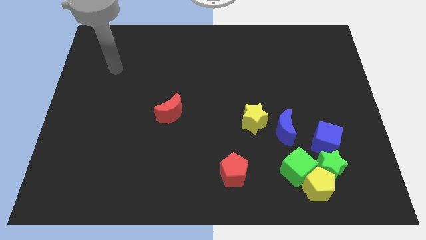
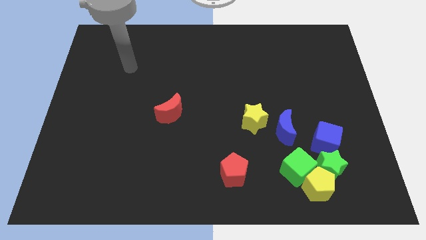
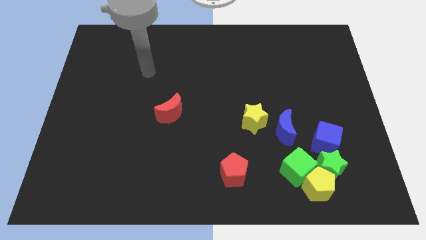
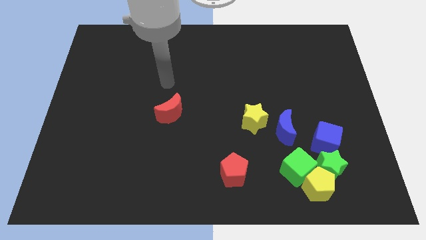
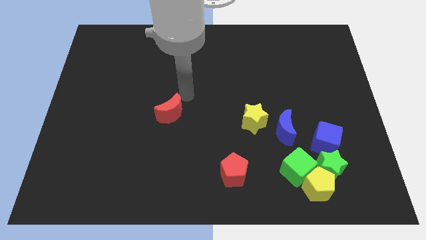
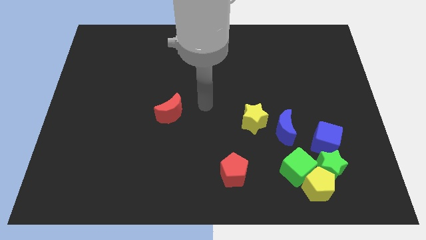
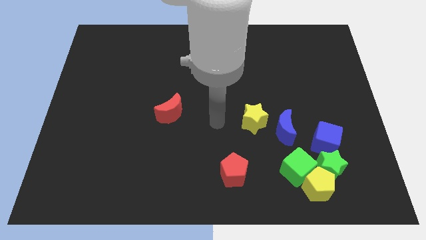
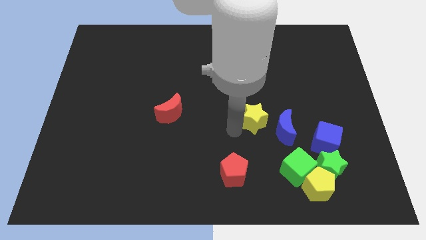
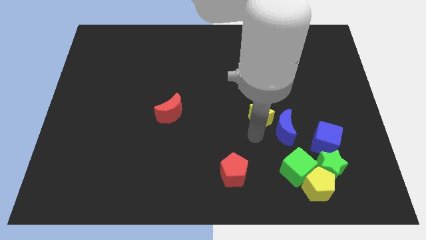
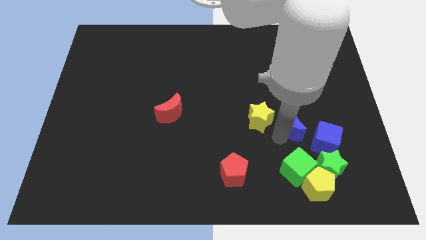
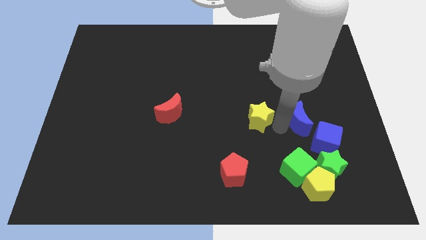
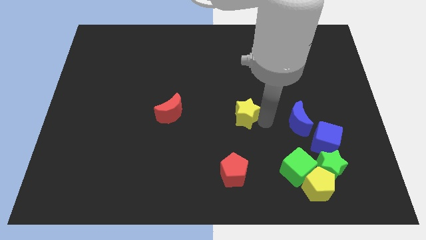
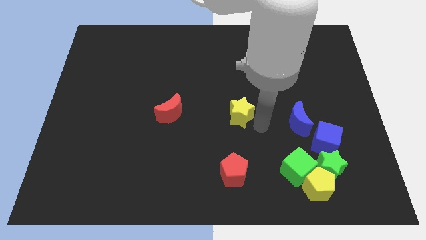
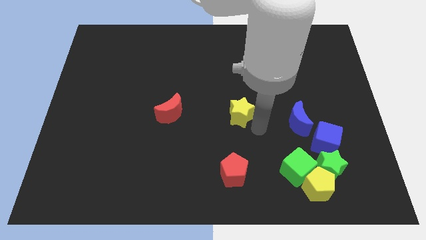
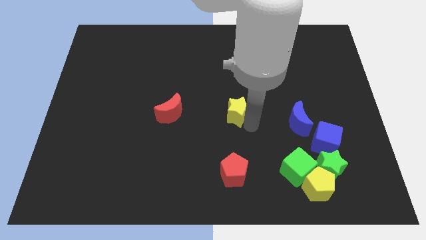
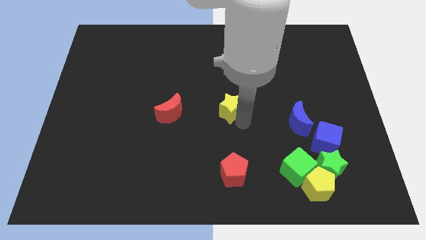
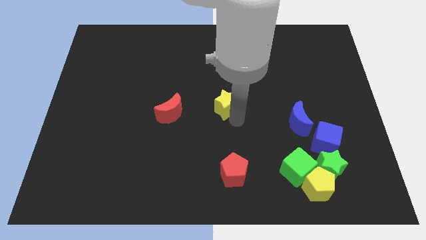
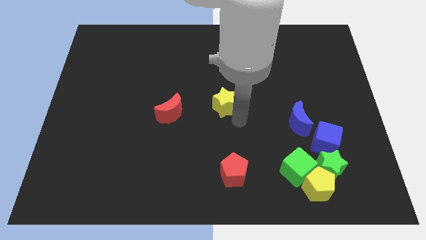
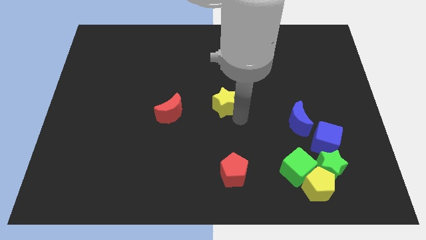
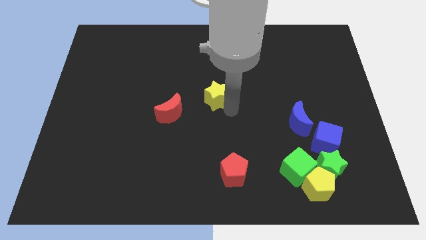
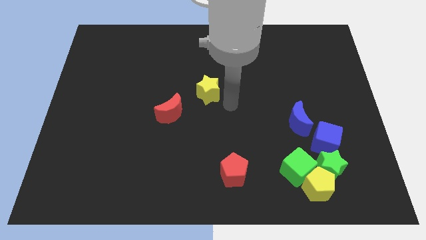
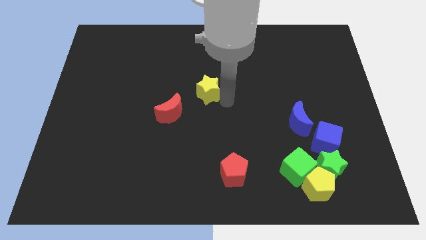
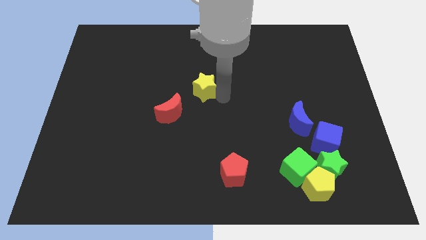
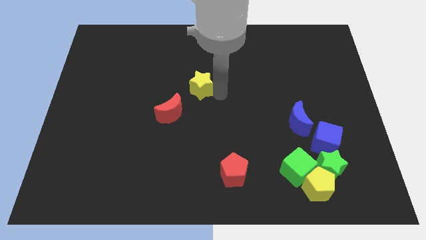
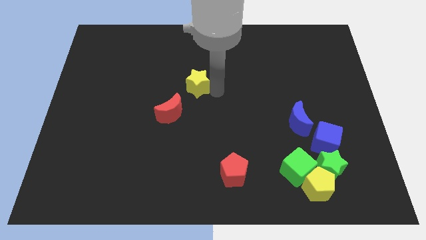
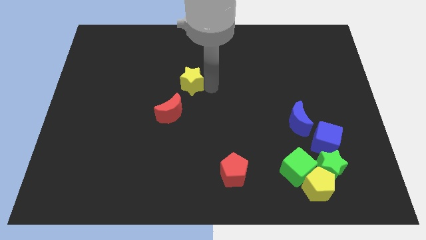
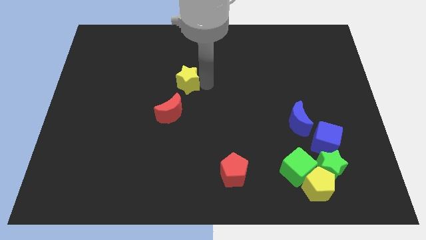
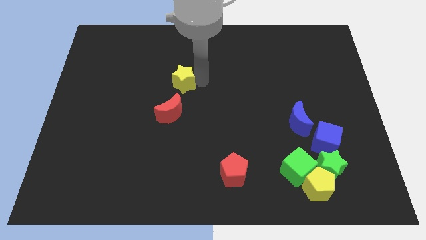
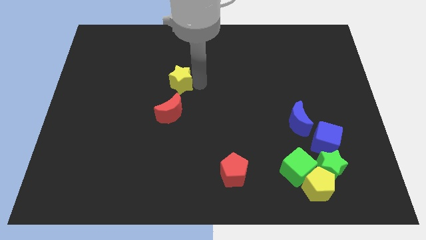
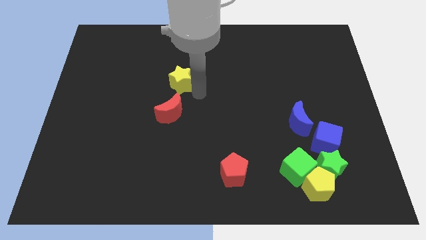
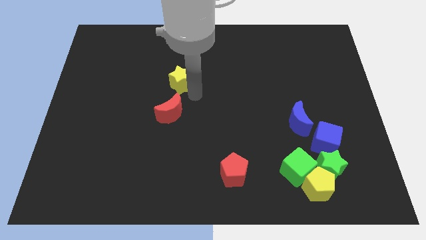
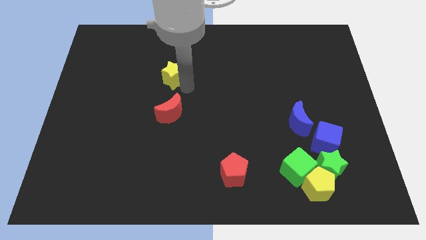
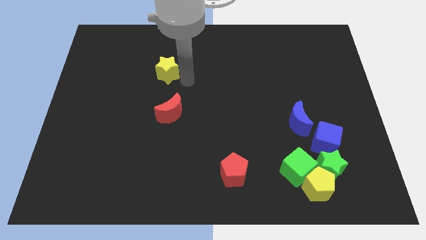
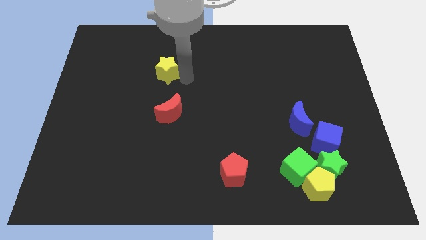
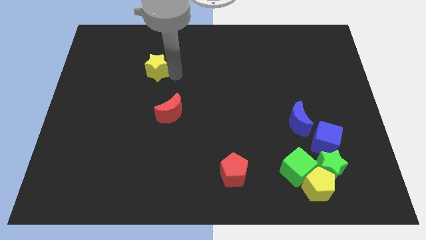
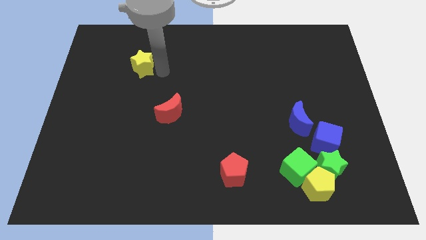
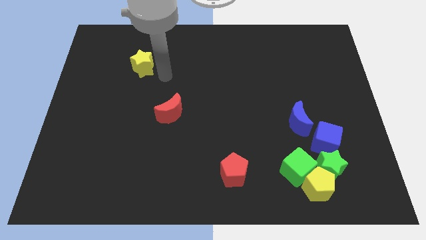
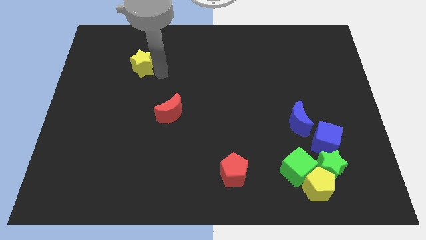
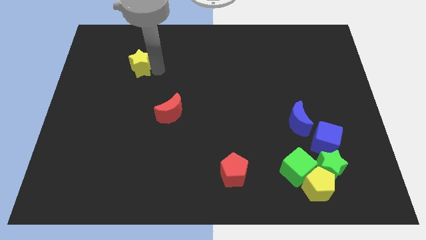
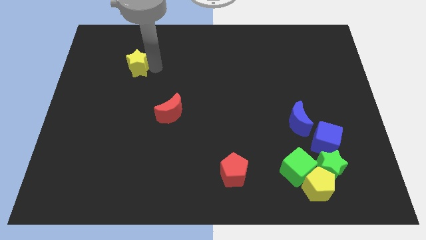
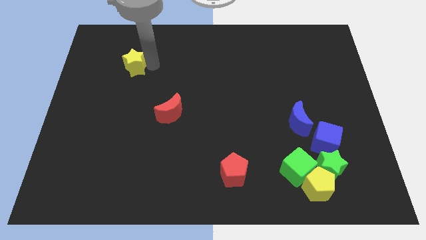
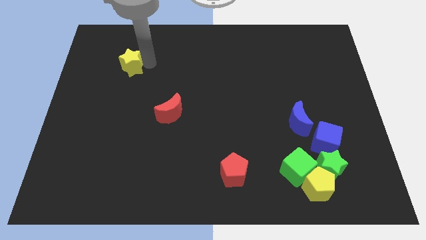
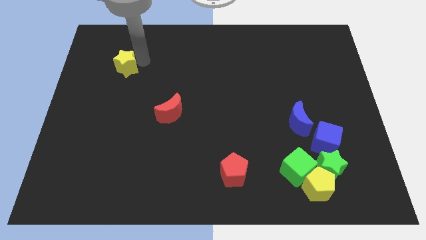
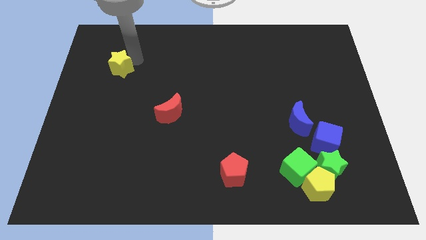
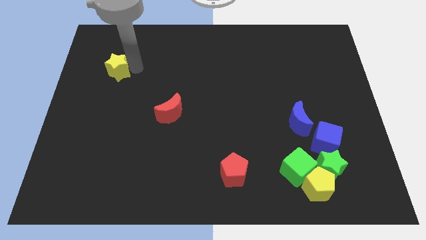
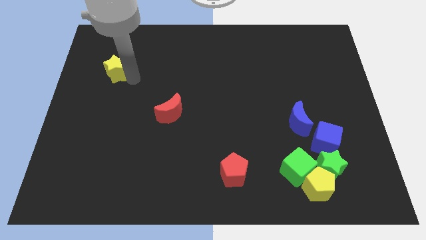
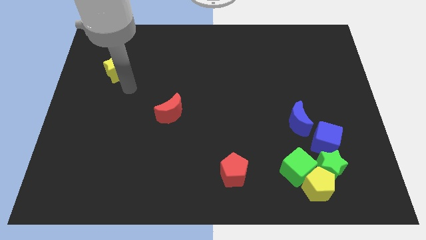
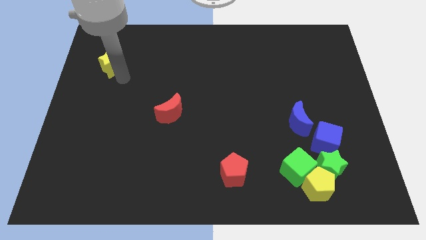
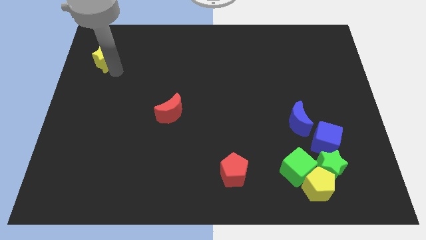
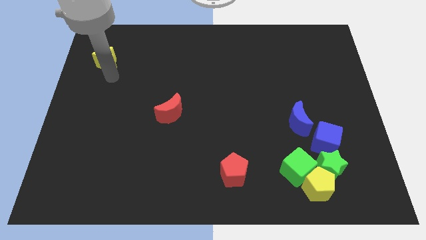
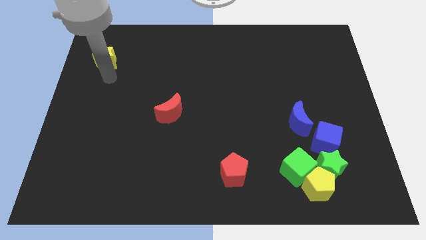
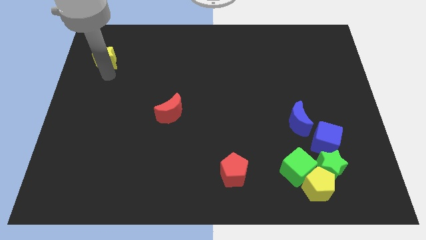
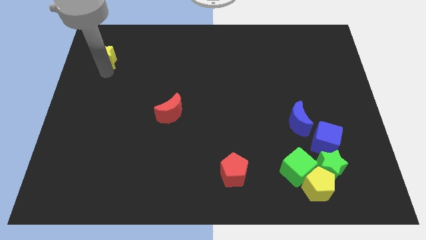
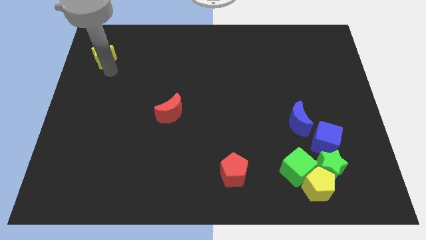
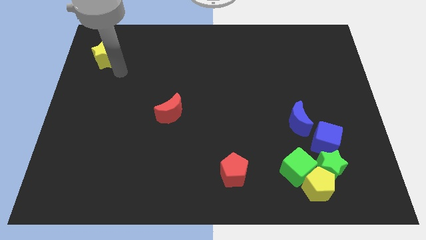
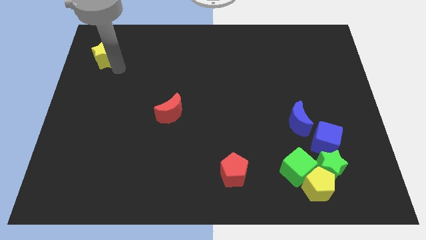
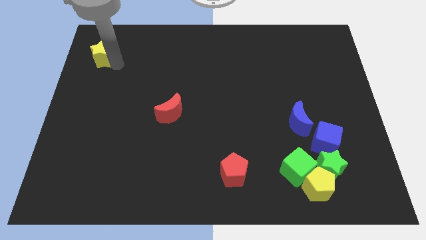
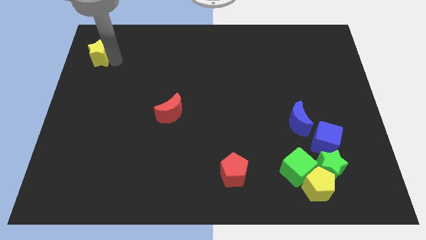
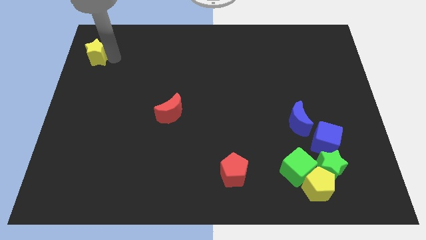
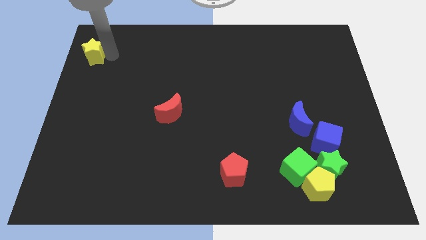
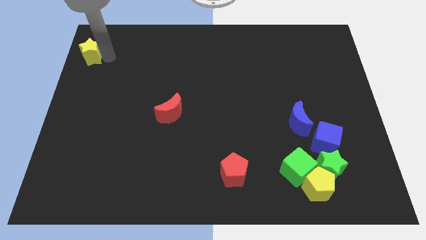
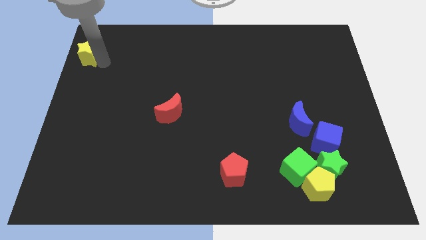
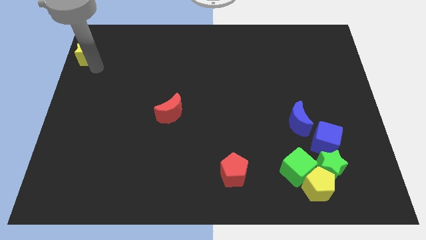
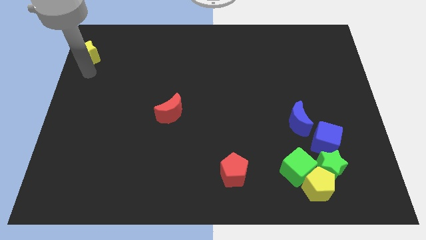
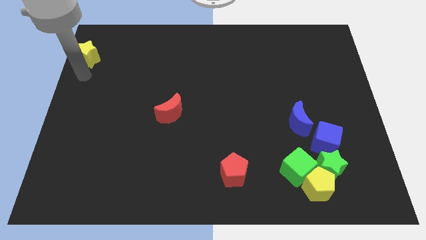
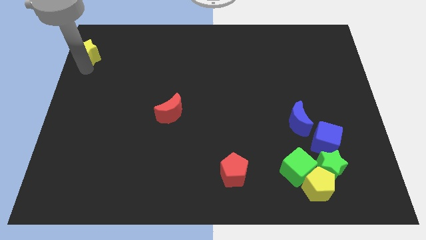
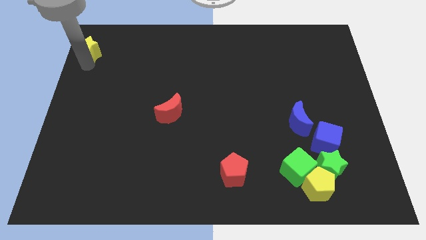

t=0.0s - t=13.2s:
push the yellow star to the top left of the board
